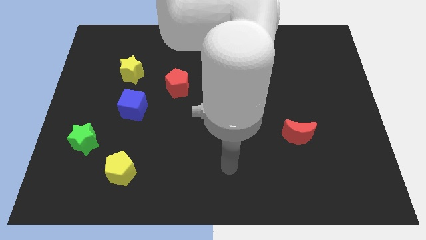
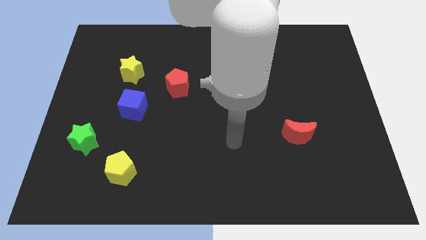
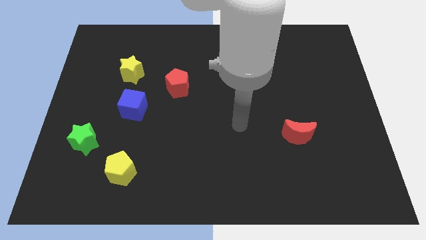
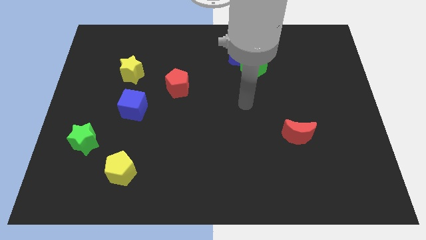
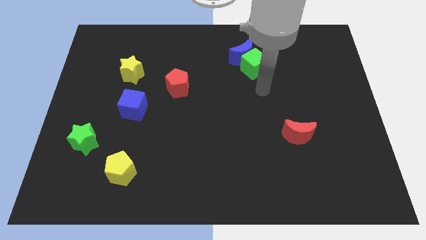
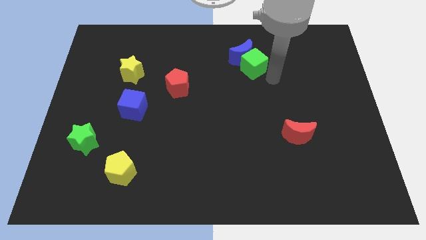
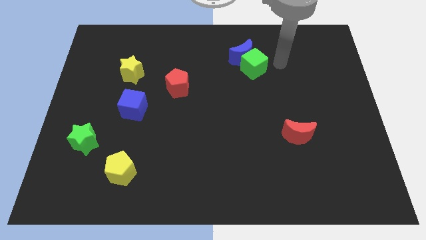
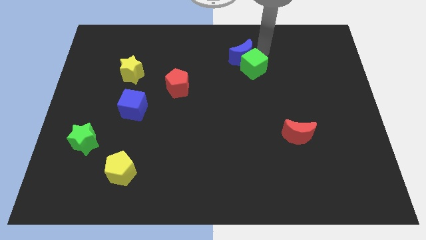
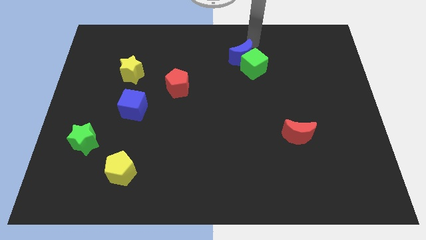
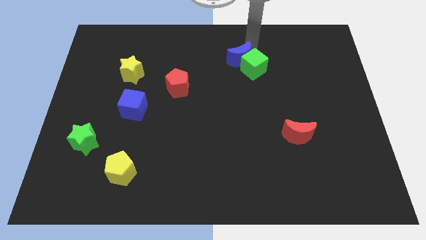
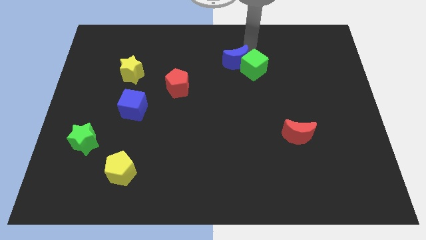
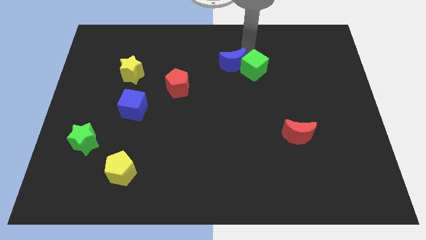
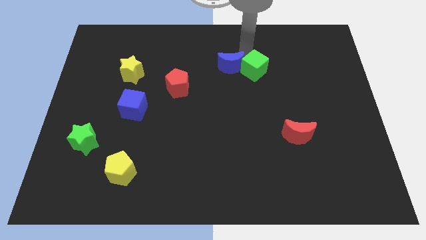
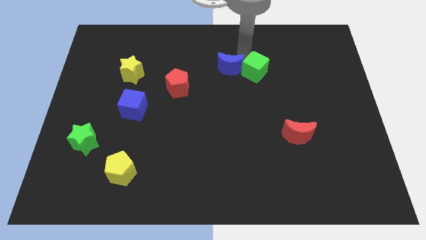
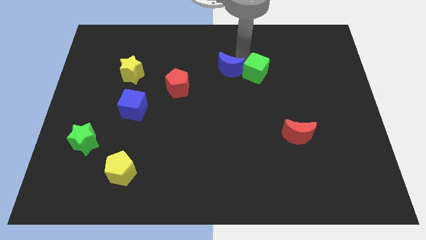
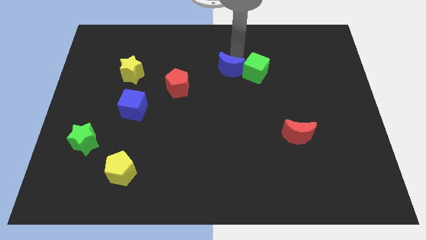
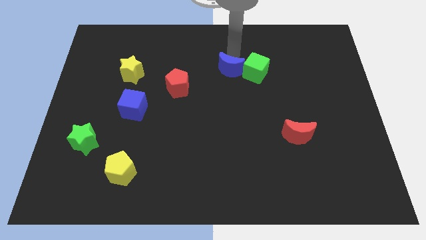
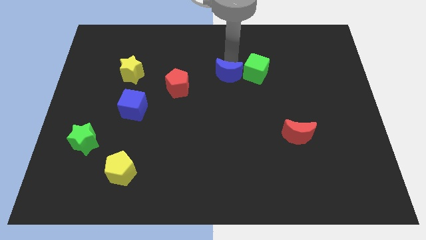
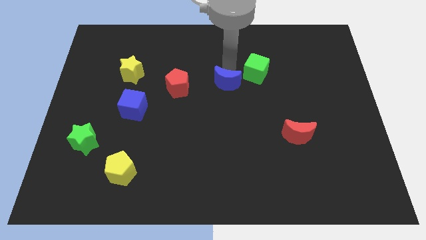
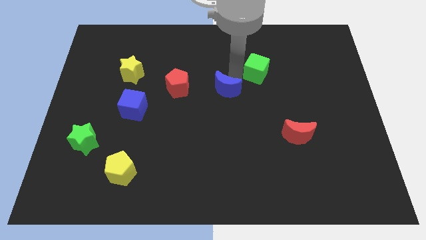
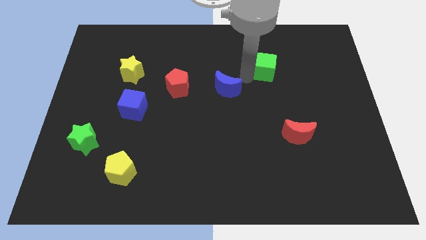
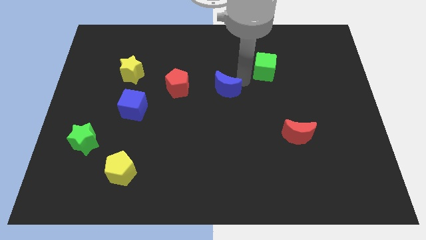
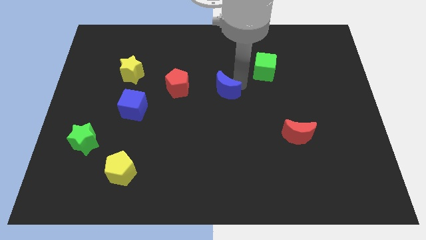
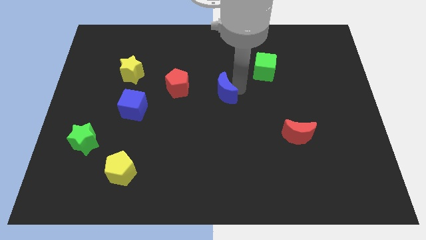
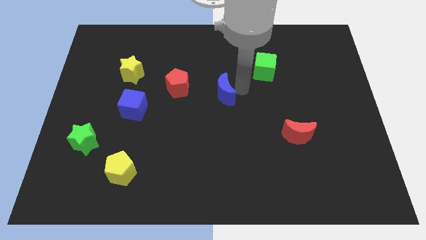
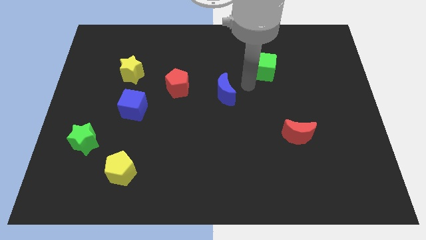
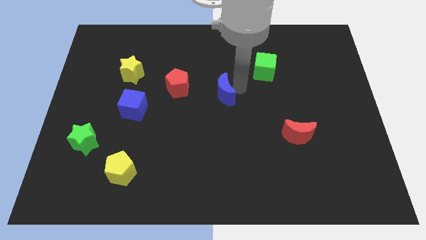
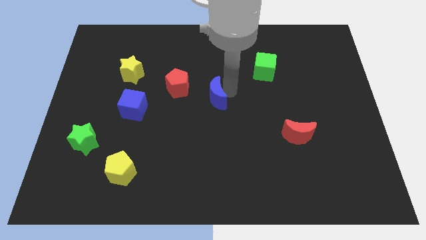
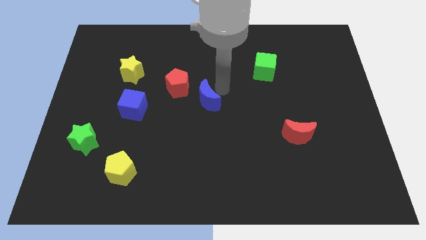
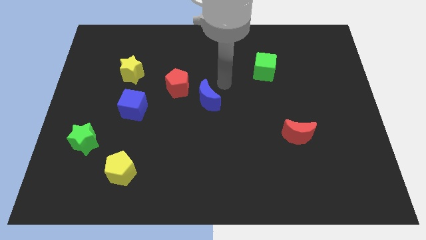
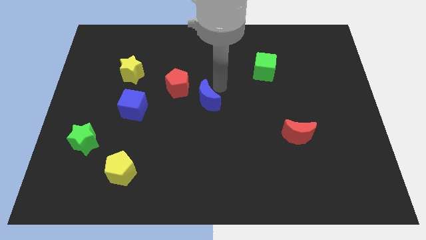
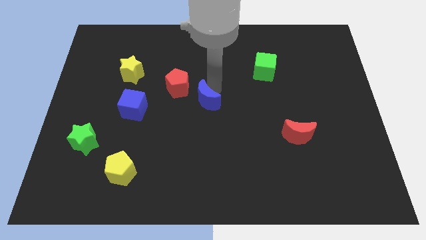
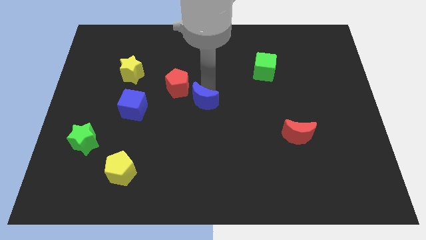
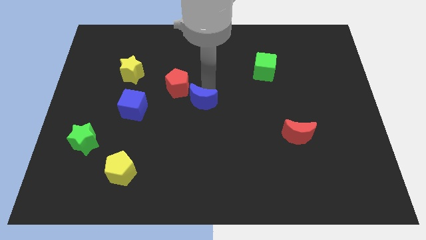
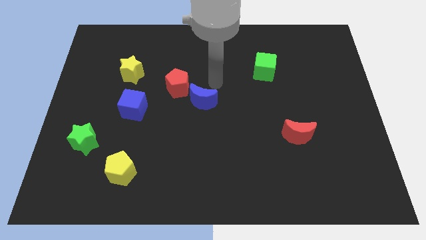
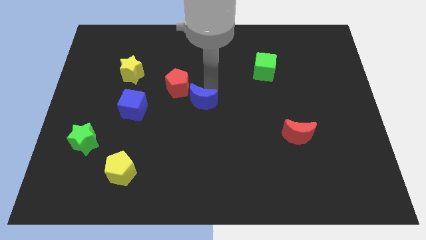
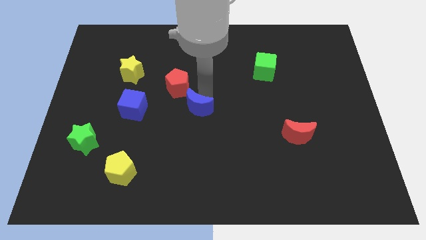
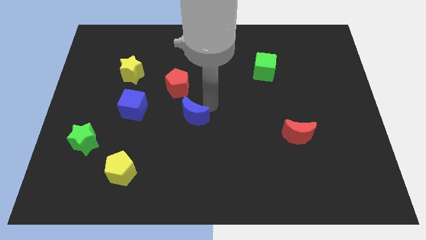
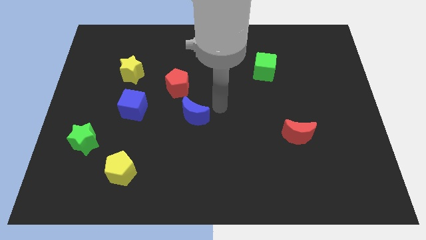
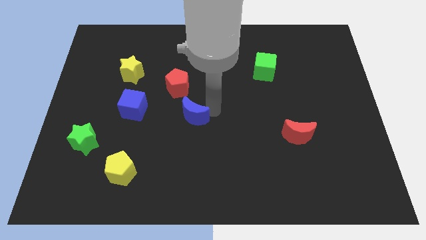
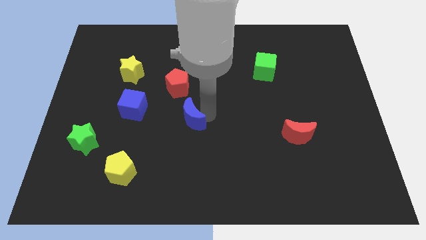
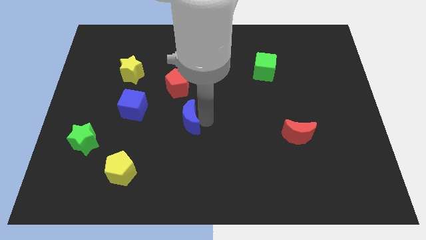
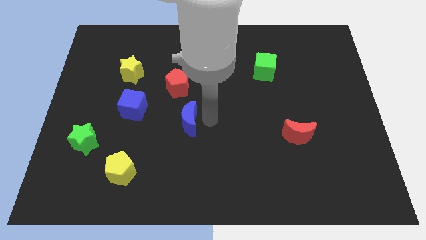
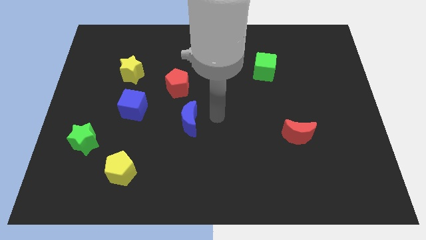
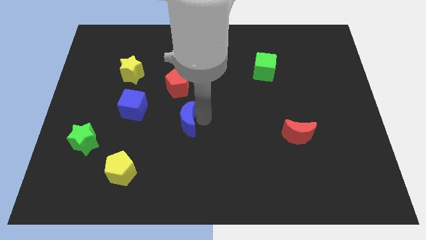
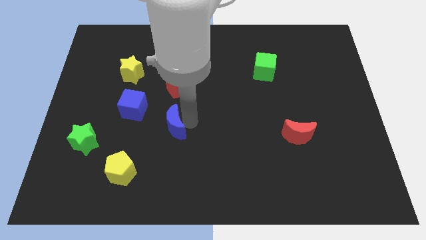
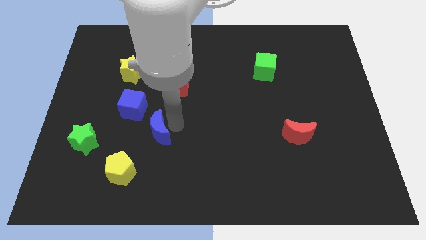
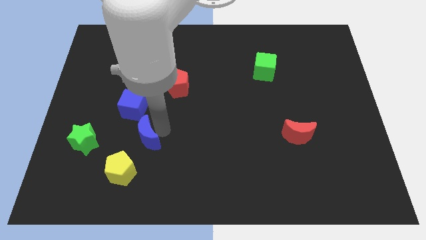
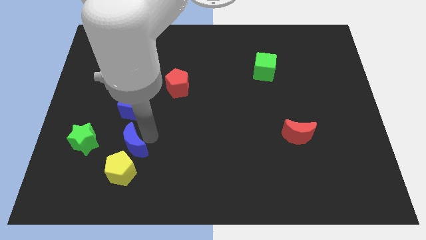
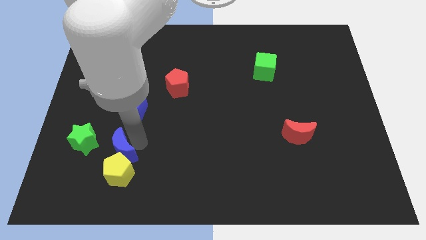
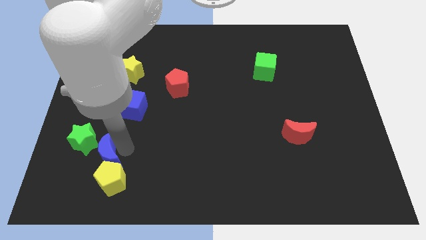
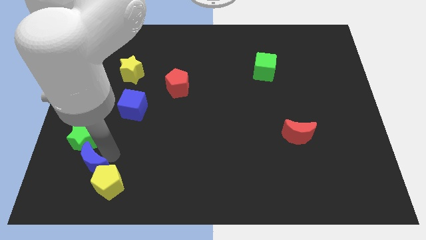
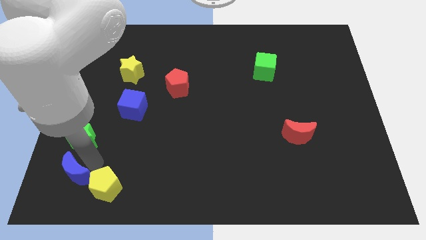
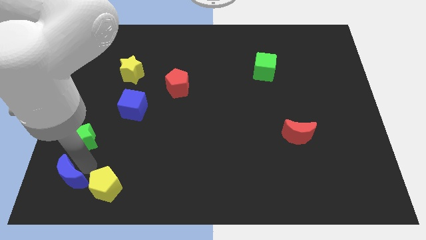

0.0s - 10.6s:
slide the blue moon to the lower left corner
